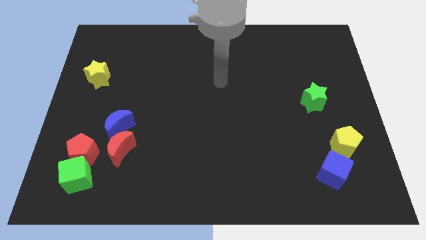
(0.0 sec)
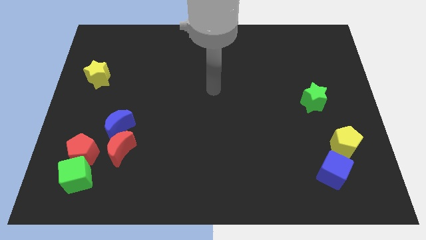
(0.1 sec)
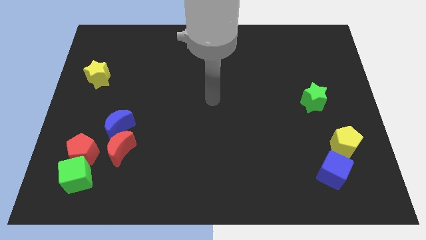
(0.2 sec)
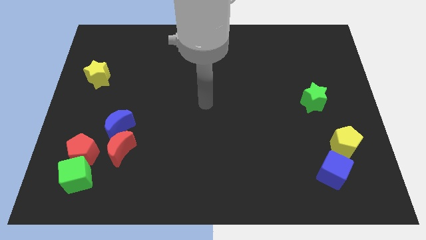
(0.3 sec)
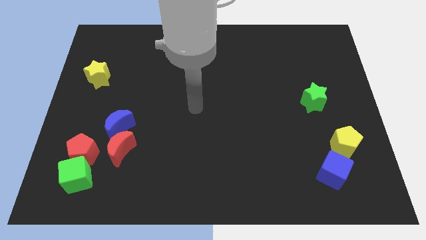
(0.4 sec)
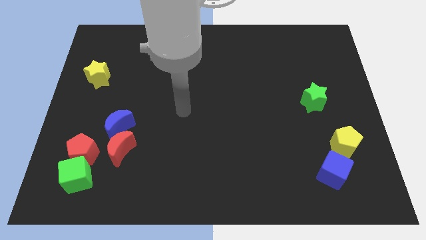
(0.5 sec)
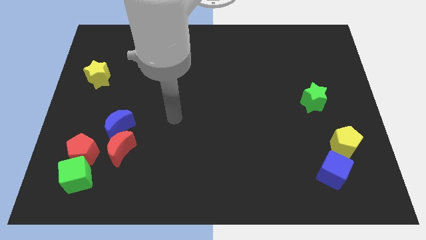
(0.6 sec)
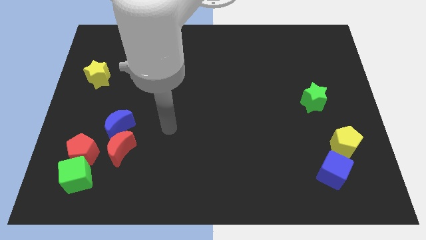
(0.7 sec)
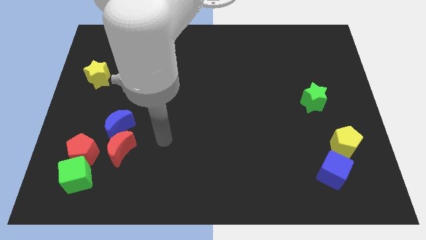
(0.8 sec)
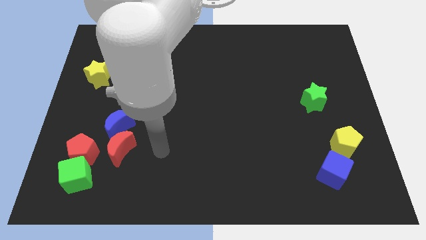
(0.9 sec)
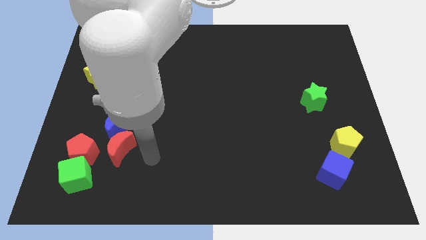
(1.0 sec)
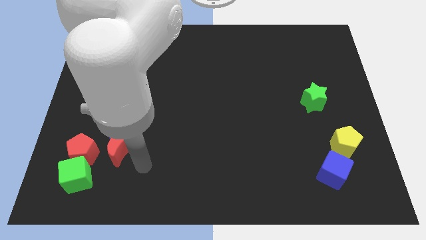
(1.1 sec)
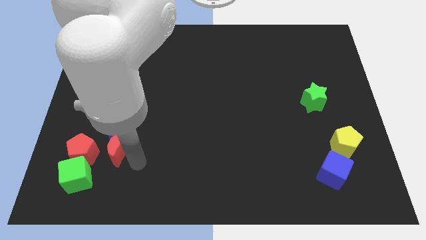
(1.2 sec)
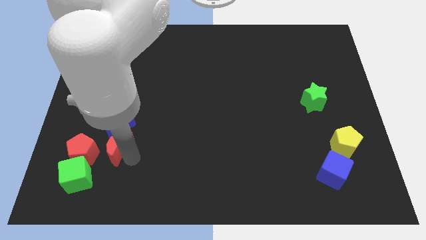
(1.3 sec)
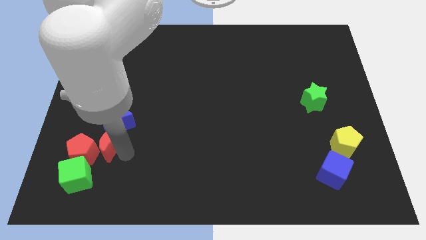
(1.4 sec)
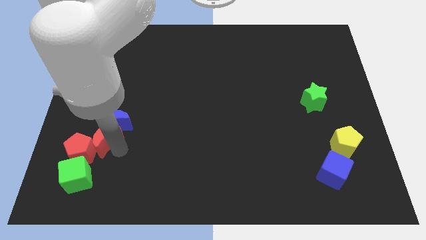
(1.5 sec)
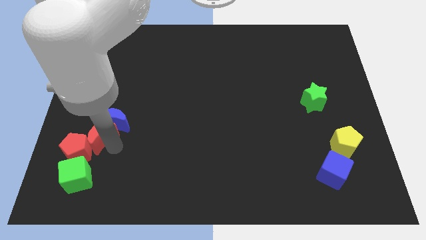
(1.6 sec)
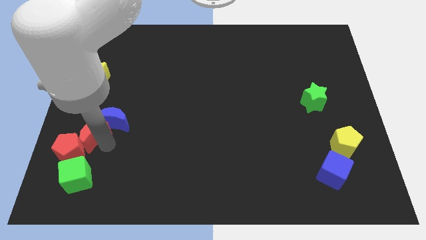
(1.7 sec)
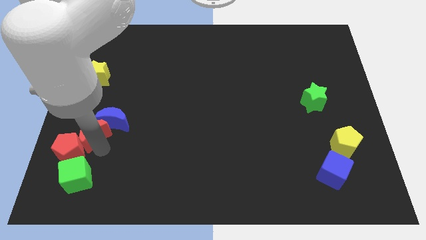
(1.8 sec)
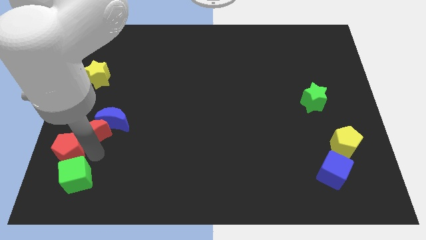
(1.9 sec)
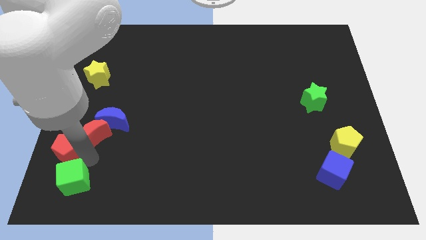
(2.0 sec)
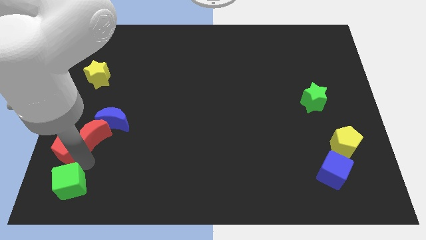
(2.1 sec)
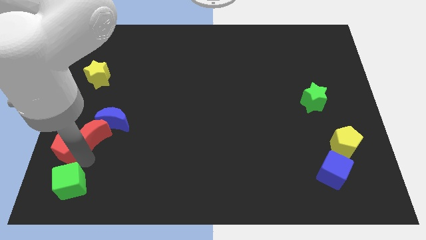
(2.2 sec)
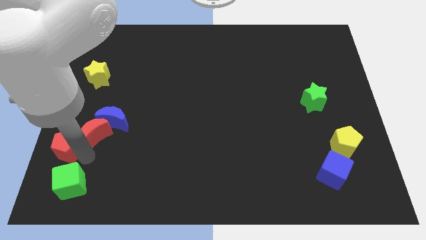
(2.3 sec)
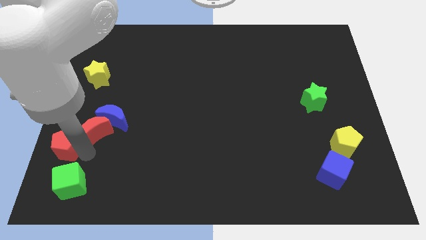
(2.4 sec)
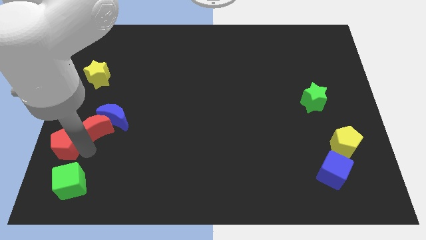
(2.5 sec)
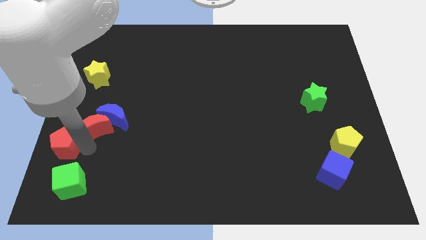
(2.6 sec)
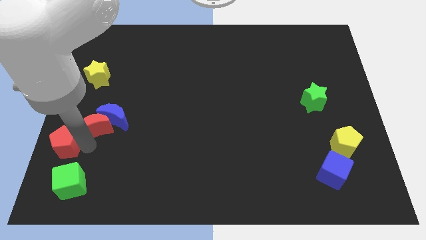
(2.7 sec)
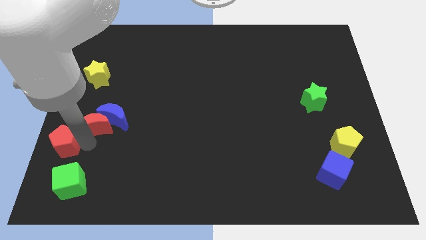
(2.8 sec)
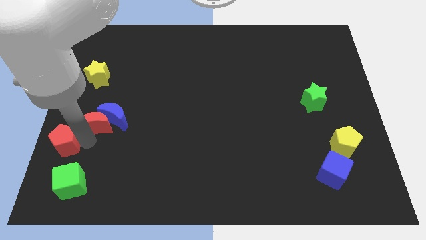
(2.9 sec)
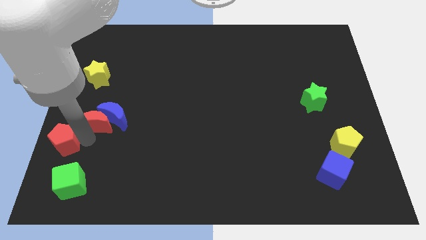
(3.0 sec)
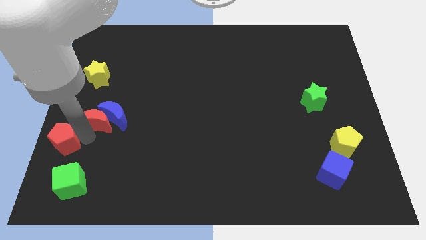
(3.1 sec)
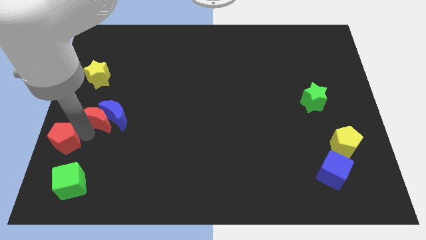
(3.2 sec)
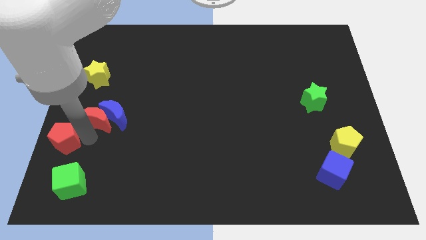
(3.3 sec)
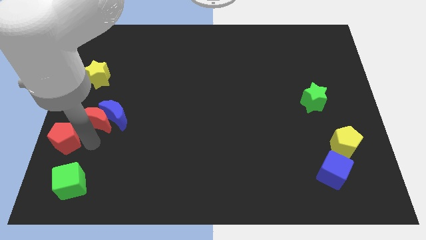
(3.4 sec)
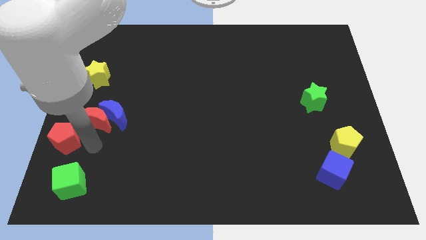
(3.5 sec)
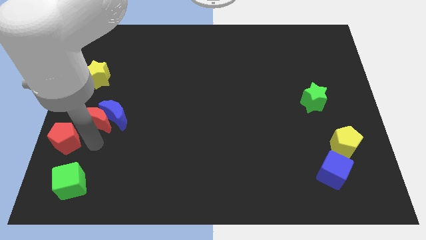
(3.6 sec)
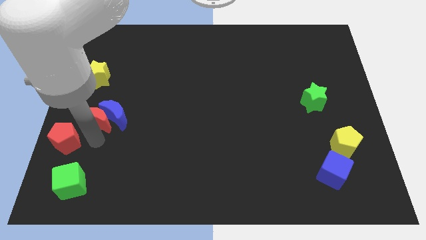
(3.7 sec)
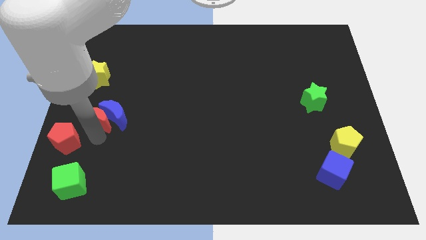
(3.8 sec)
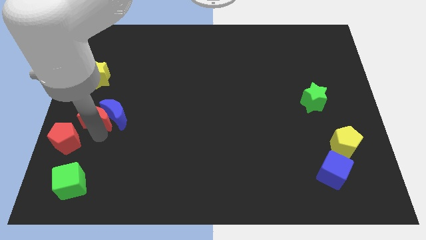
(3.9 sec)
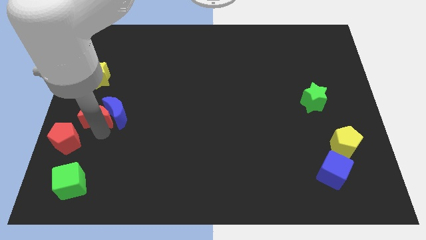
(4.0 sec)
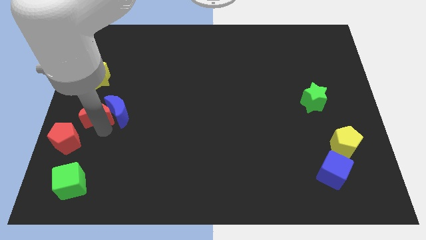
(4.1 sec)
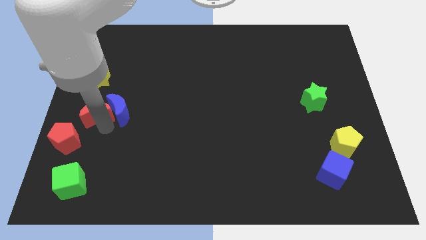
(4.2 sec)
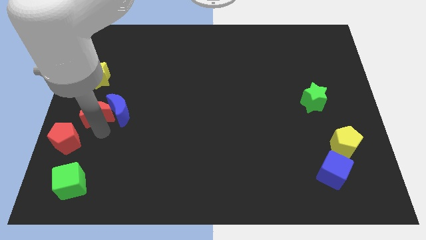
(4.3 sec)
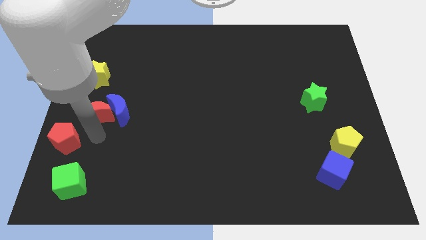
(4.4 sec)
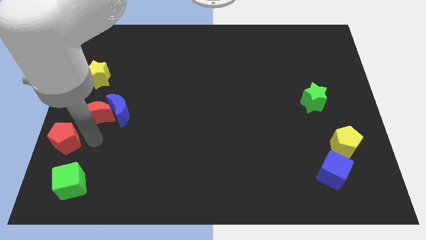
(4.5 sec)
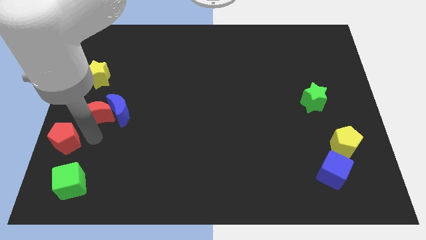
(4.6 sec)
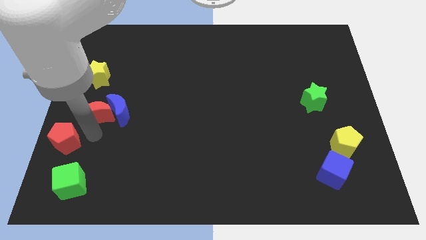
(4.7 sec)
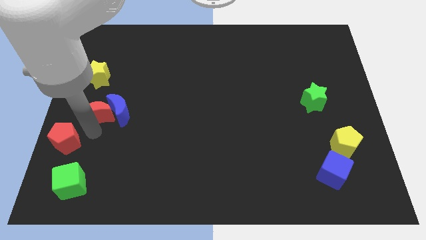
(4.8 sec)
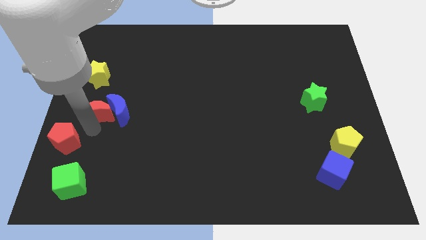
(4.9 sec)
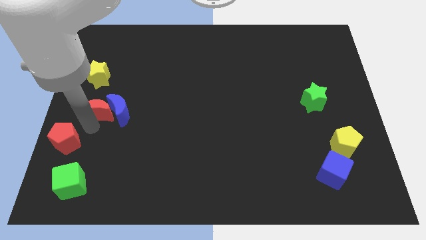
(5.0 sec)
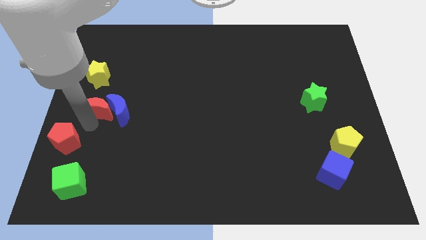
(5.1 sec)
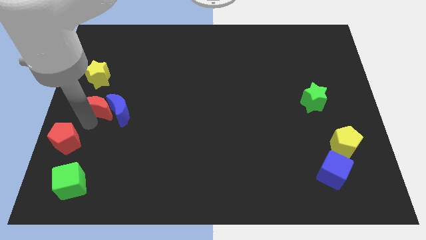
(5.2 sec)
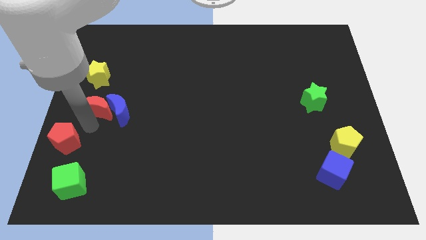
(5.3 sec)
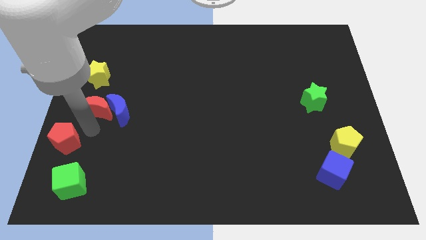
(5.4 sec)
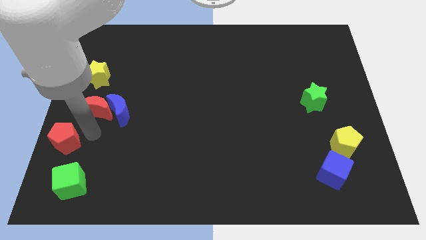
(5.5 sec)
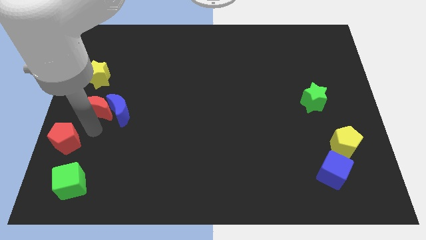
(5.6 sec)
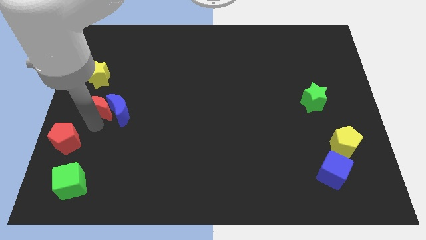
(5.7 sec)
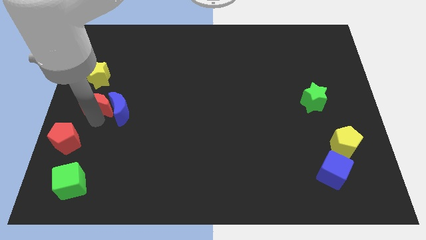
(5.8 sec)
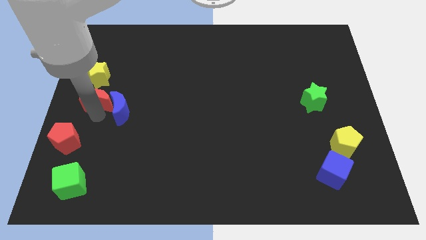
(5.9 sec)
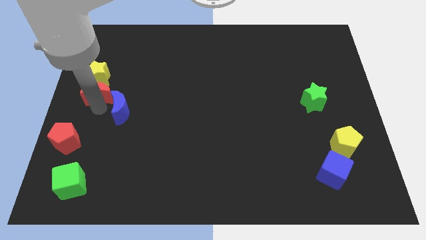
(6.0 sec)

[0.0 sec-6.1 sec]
slide the red moon towards the yellow star
